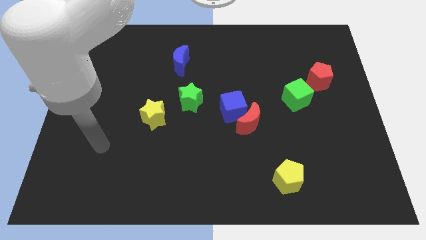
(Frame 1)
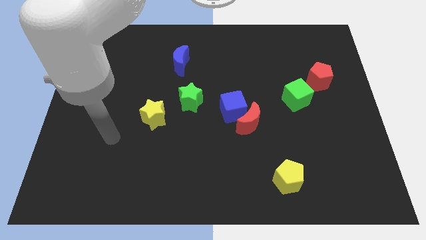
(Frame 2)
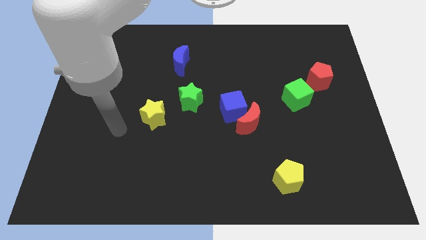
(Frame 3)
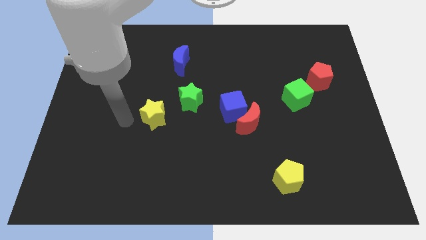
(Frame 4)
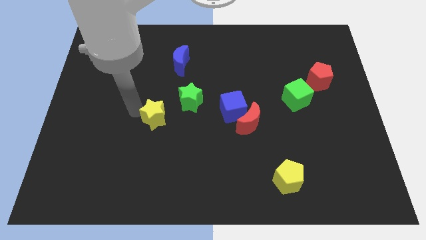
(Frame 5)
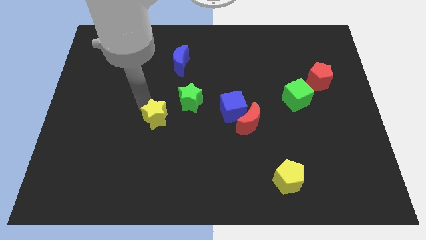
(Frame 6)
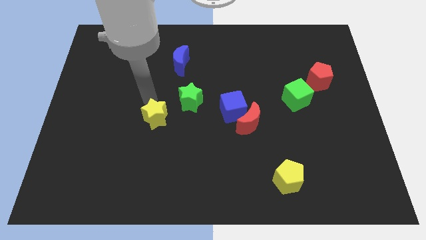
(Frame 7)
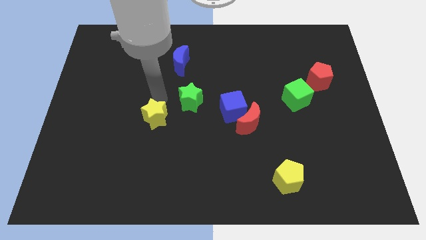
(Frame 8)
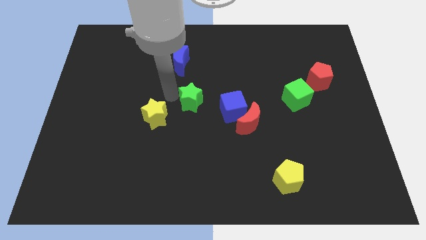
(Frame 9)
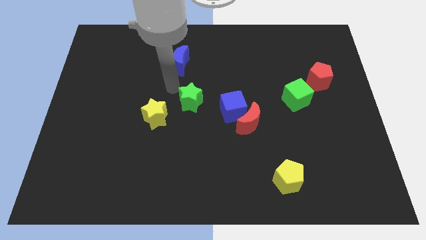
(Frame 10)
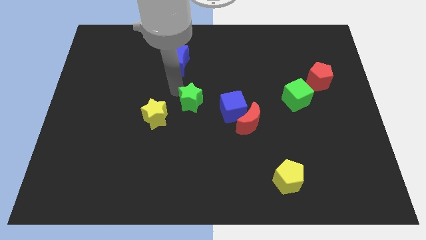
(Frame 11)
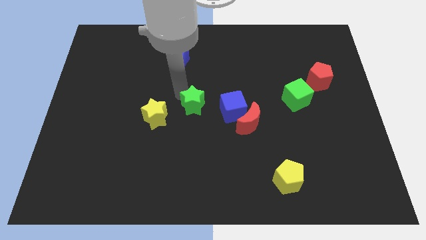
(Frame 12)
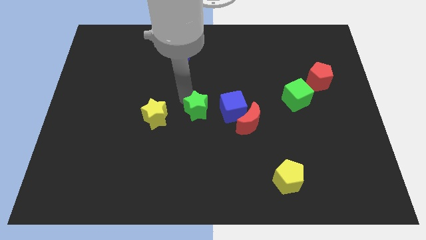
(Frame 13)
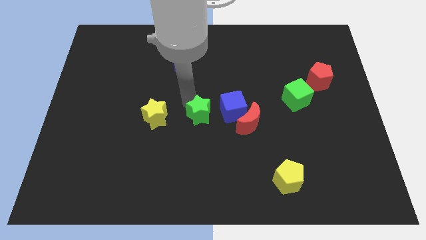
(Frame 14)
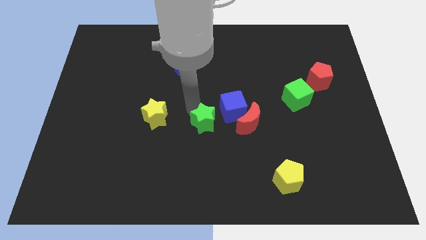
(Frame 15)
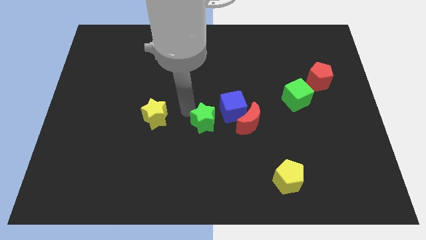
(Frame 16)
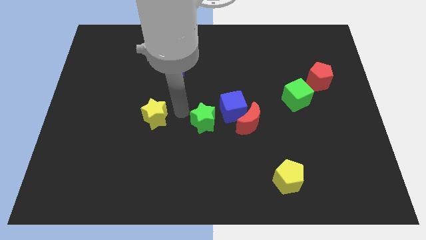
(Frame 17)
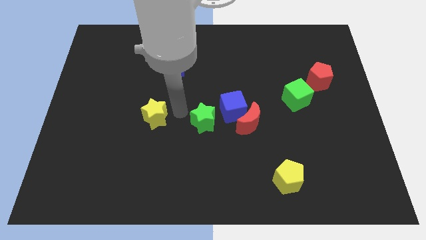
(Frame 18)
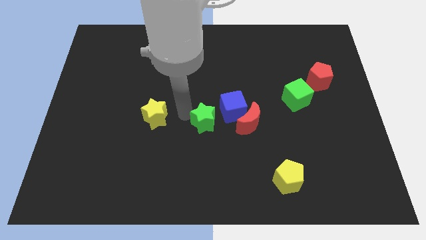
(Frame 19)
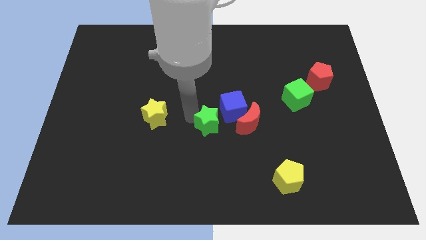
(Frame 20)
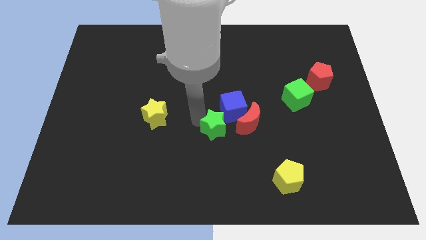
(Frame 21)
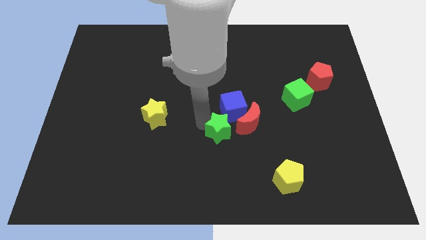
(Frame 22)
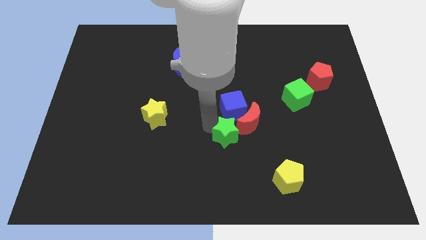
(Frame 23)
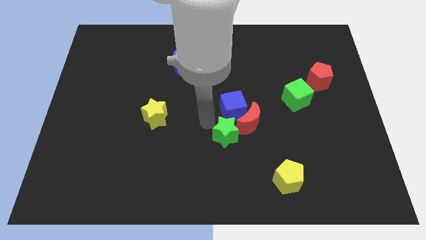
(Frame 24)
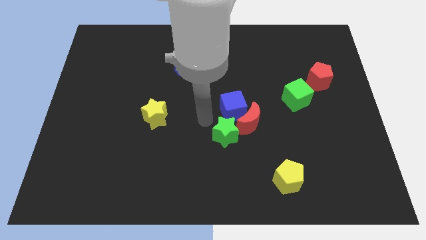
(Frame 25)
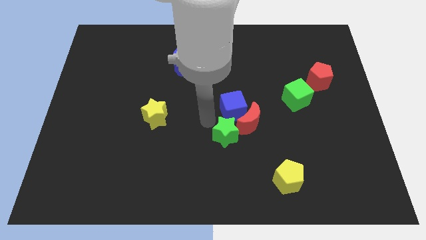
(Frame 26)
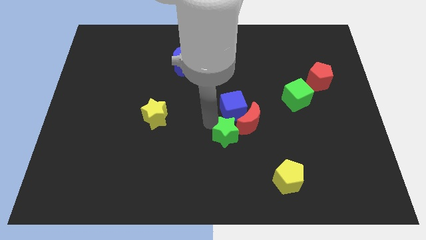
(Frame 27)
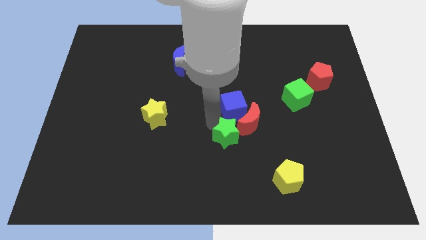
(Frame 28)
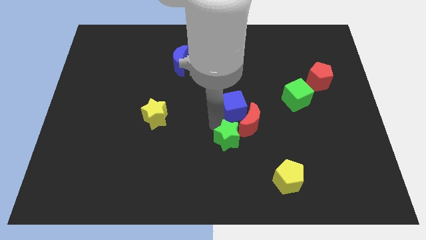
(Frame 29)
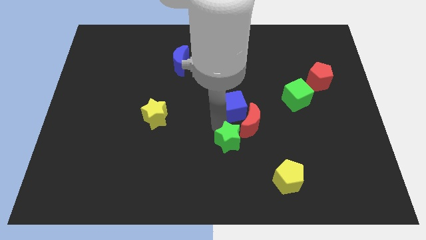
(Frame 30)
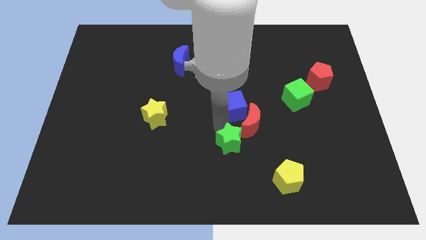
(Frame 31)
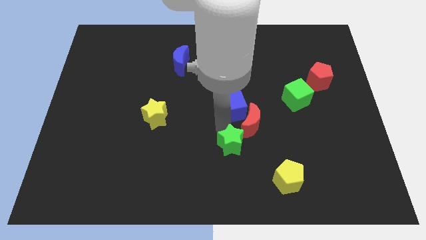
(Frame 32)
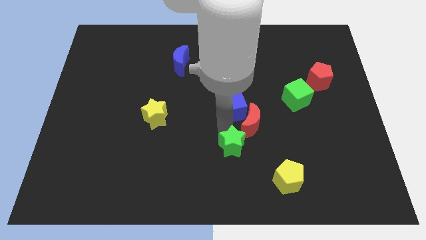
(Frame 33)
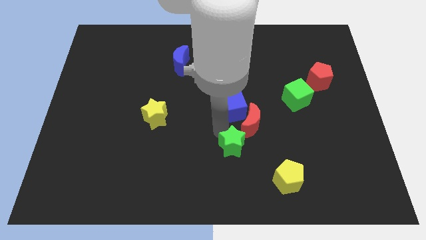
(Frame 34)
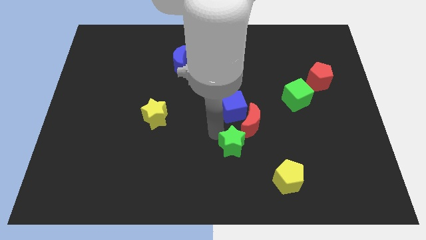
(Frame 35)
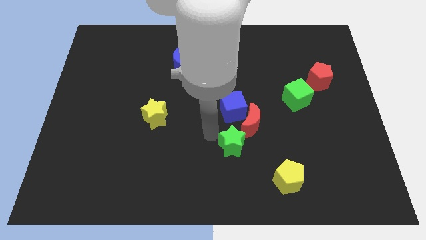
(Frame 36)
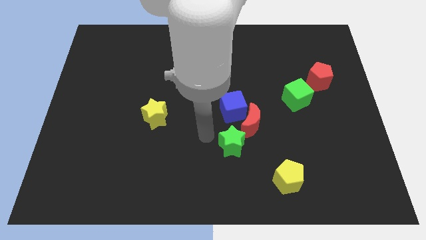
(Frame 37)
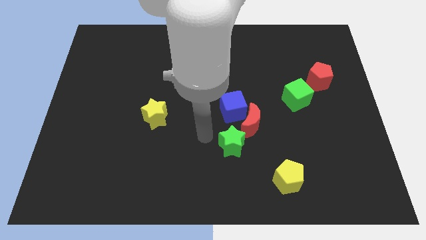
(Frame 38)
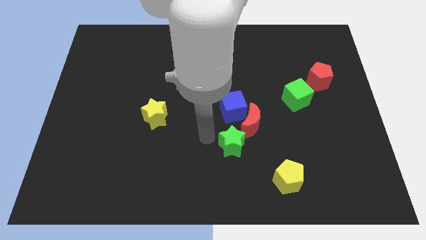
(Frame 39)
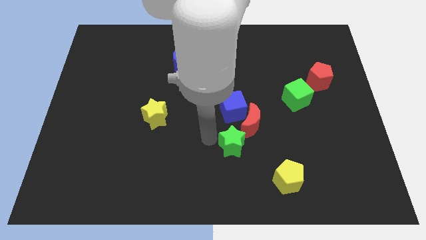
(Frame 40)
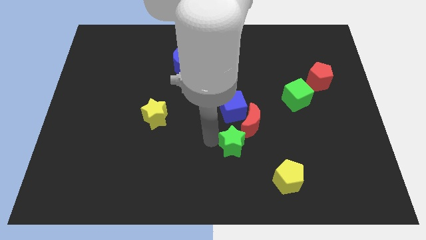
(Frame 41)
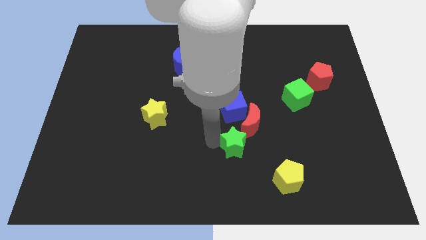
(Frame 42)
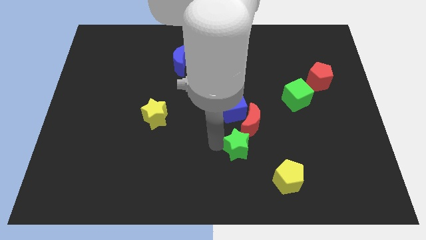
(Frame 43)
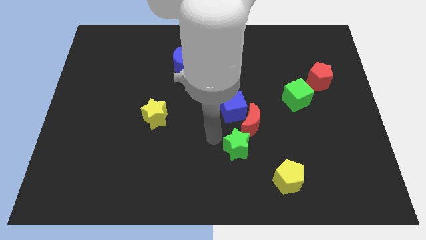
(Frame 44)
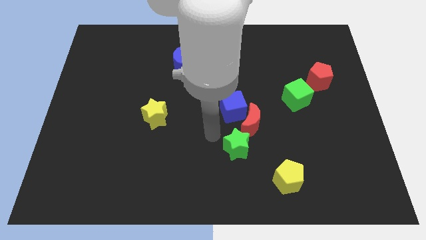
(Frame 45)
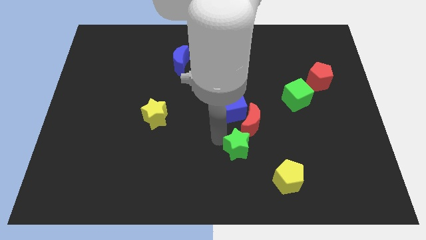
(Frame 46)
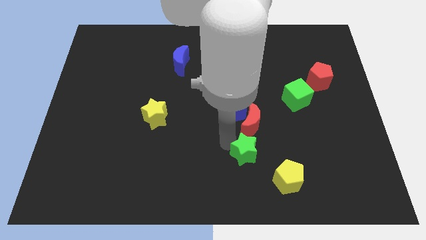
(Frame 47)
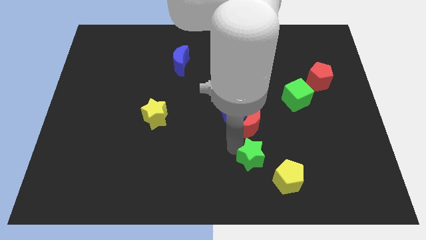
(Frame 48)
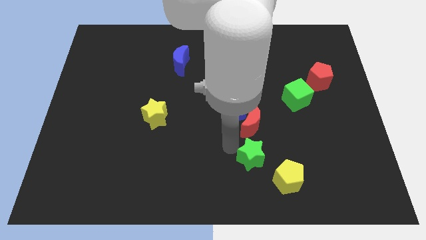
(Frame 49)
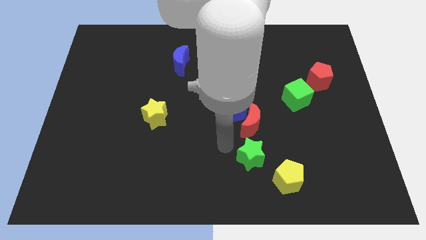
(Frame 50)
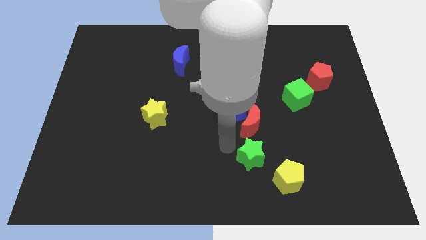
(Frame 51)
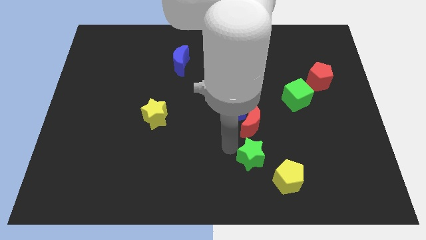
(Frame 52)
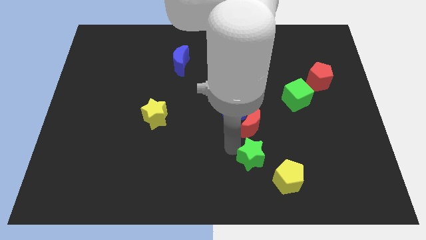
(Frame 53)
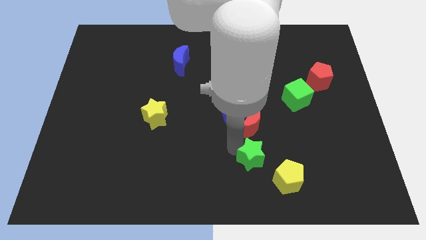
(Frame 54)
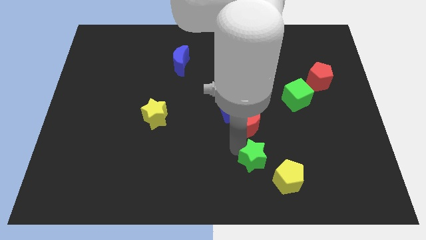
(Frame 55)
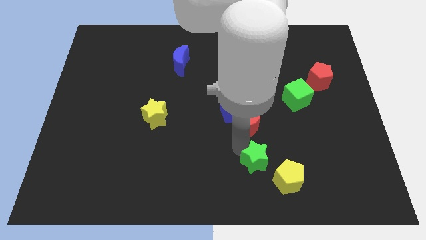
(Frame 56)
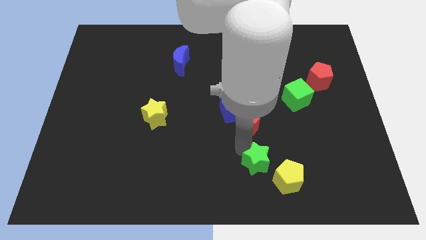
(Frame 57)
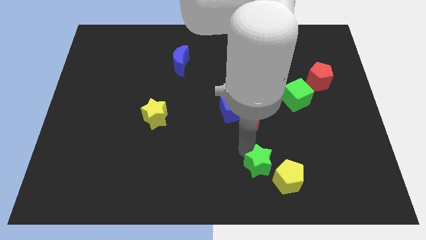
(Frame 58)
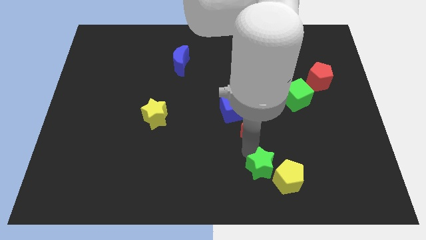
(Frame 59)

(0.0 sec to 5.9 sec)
put the green star close to the yellow pentagon

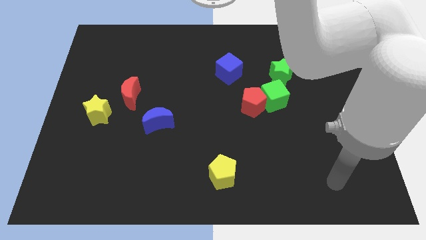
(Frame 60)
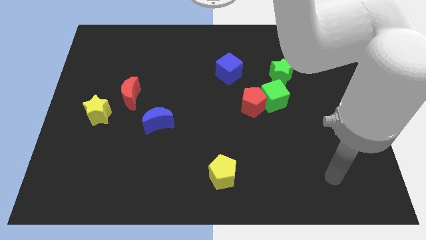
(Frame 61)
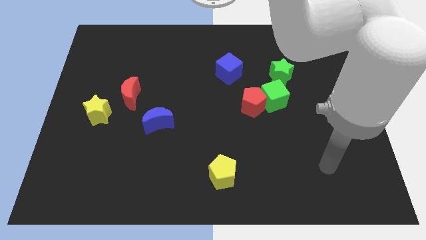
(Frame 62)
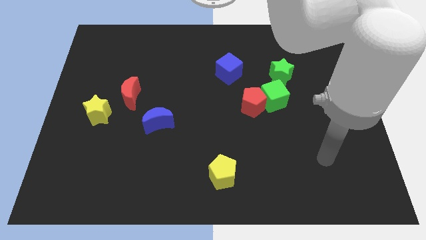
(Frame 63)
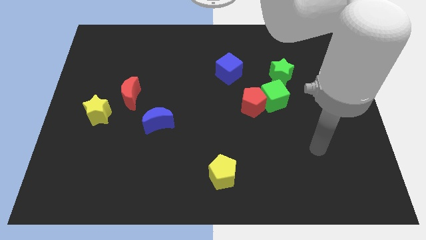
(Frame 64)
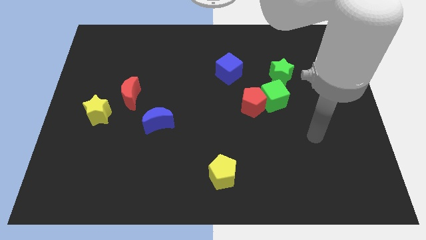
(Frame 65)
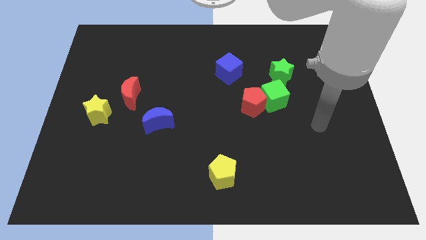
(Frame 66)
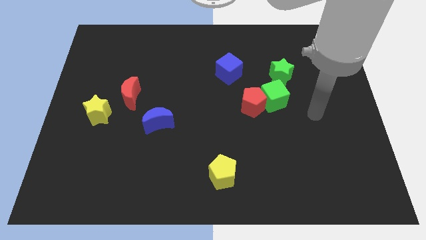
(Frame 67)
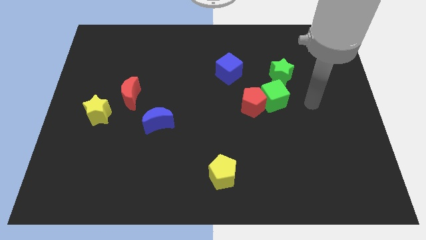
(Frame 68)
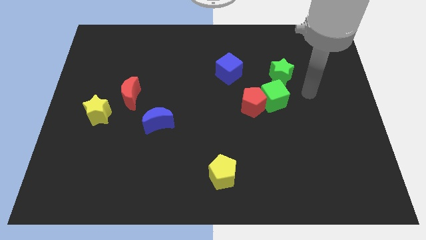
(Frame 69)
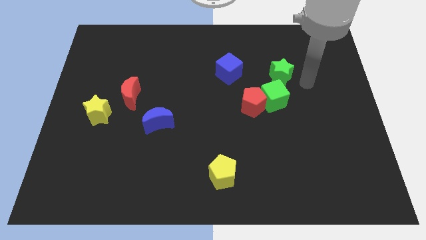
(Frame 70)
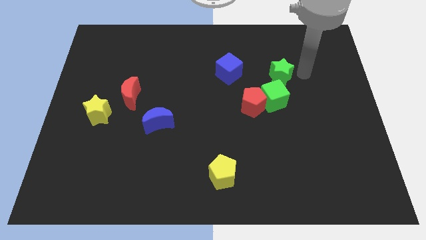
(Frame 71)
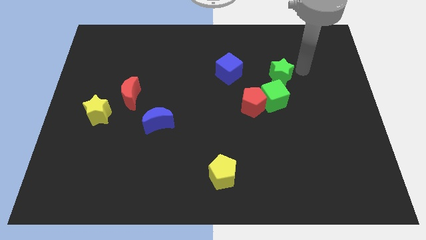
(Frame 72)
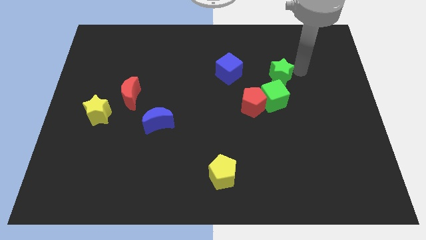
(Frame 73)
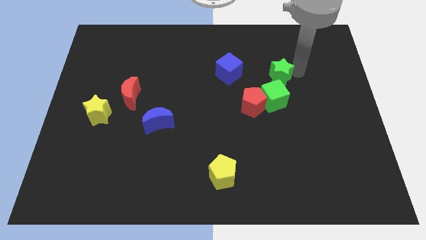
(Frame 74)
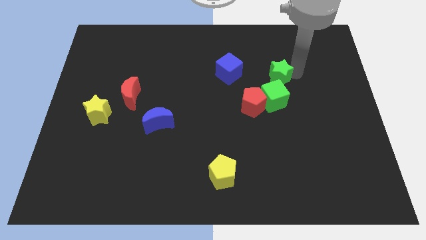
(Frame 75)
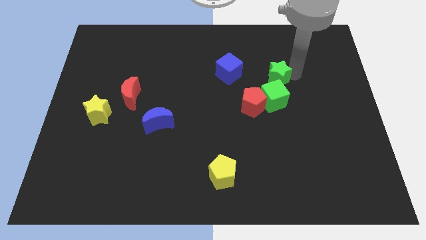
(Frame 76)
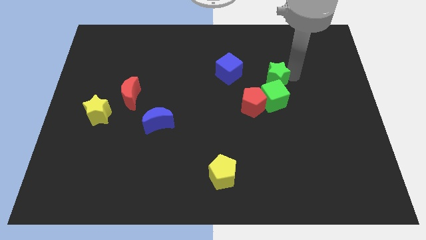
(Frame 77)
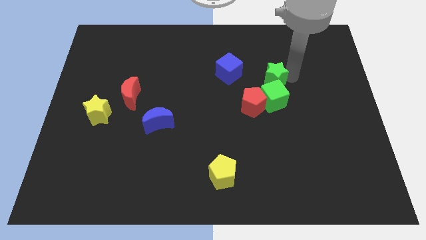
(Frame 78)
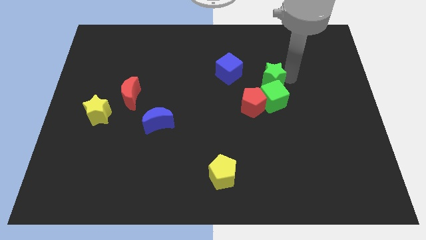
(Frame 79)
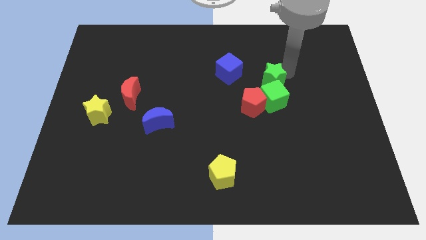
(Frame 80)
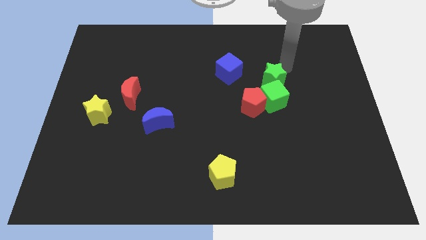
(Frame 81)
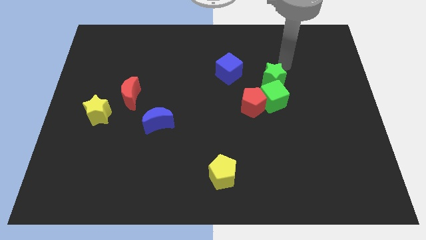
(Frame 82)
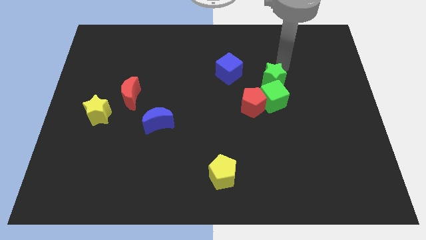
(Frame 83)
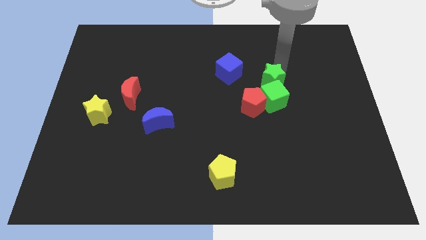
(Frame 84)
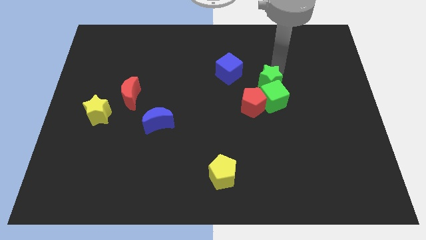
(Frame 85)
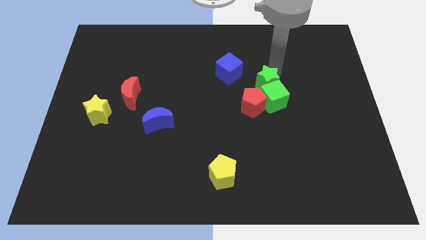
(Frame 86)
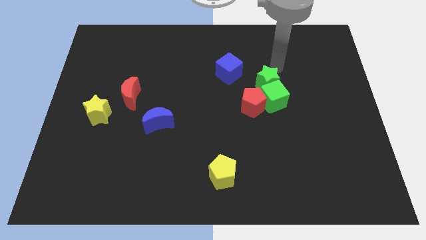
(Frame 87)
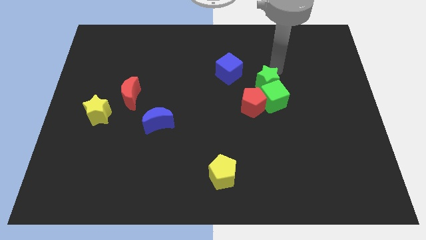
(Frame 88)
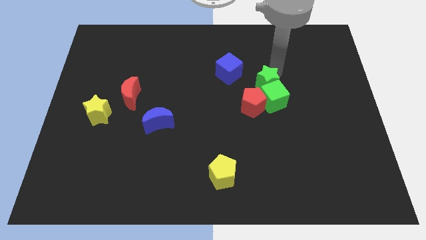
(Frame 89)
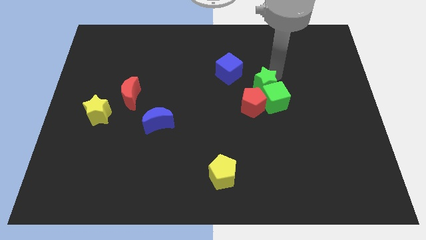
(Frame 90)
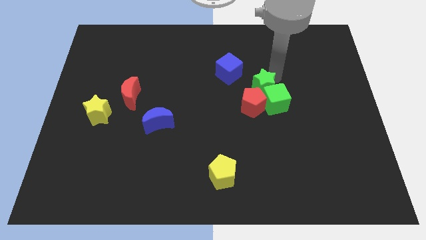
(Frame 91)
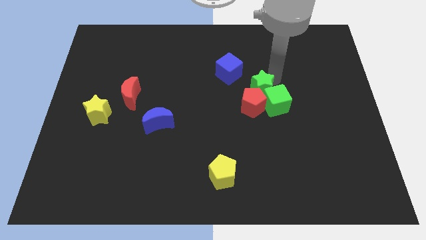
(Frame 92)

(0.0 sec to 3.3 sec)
push the green star to the red pentagon
